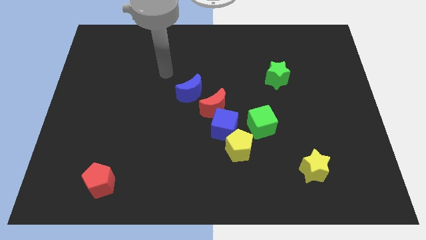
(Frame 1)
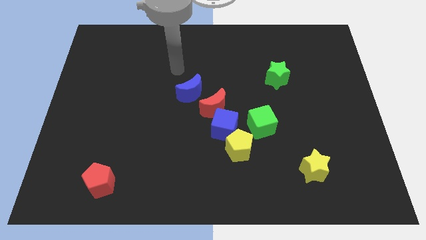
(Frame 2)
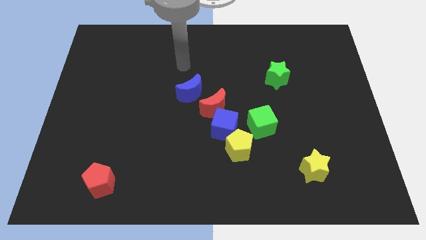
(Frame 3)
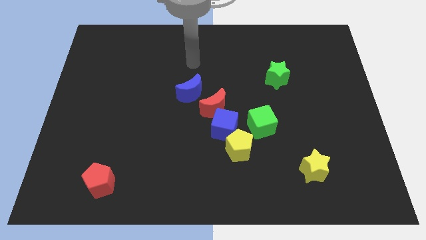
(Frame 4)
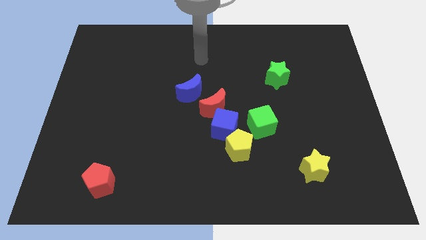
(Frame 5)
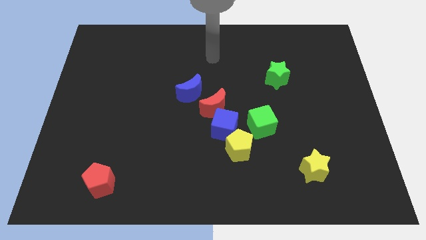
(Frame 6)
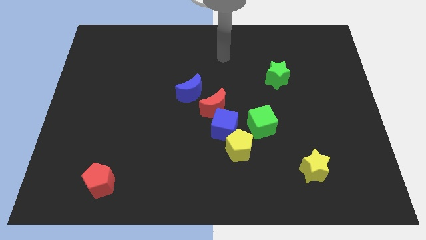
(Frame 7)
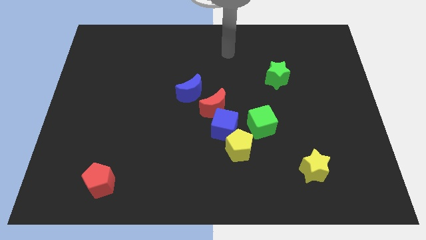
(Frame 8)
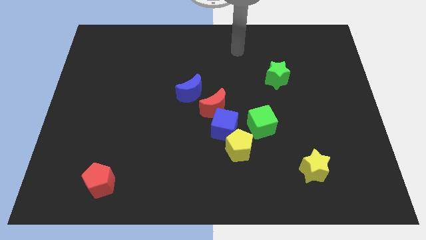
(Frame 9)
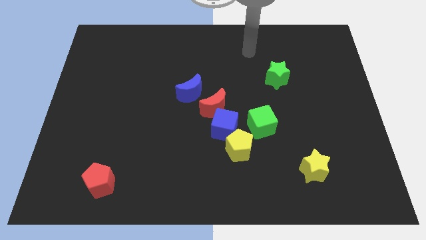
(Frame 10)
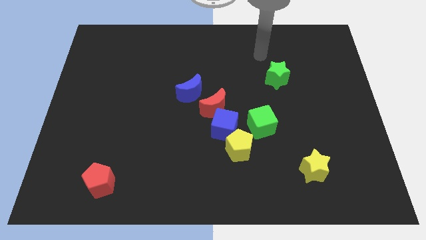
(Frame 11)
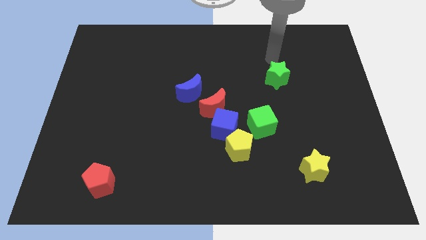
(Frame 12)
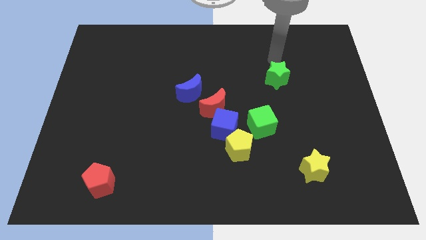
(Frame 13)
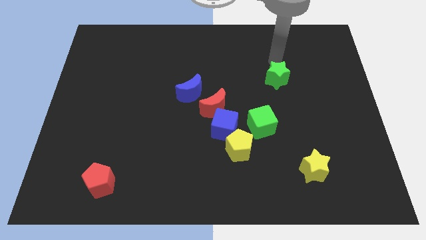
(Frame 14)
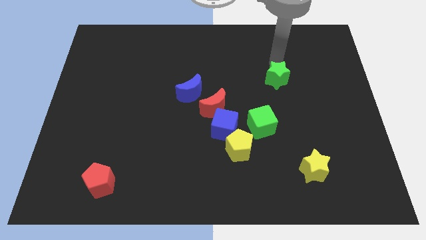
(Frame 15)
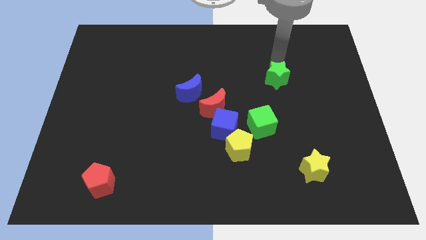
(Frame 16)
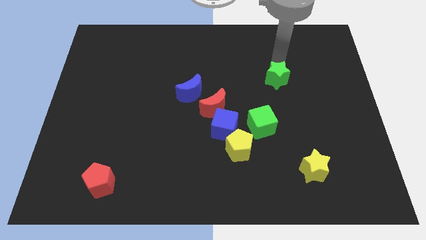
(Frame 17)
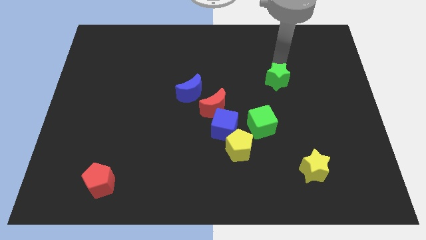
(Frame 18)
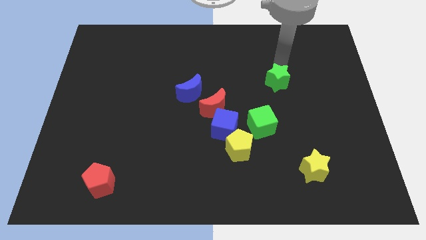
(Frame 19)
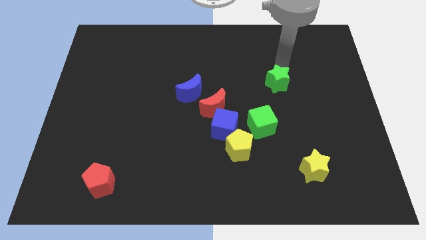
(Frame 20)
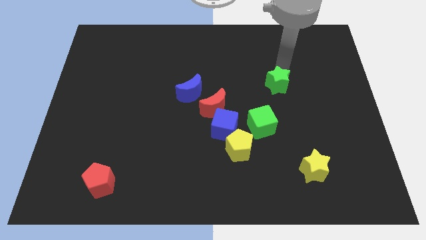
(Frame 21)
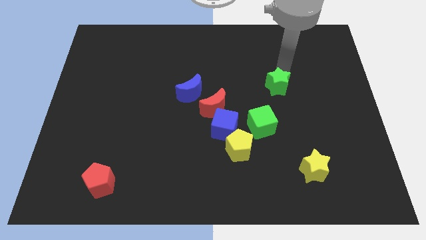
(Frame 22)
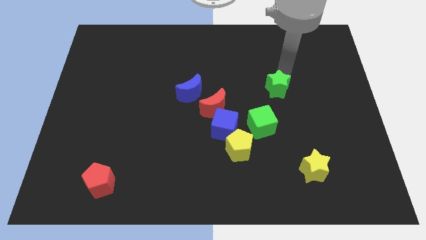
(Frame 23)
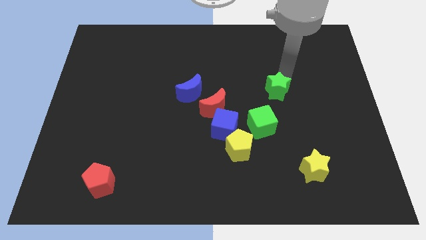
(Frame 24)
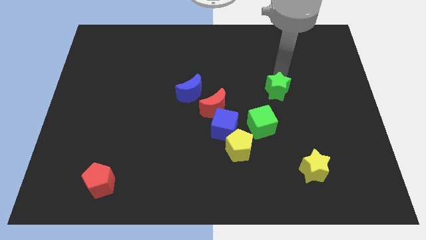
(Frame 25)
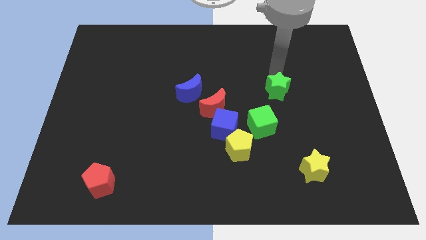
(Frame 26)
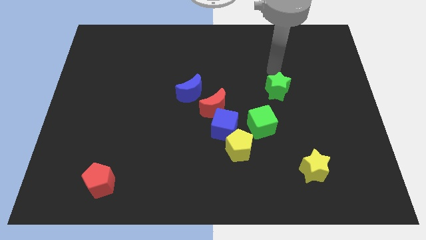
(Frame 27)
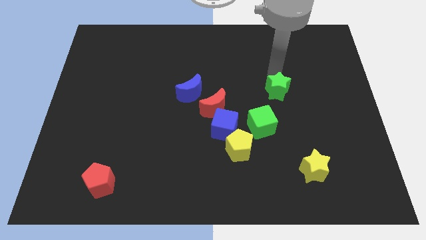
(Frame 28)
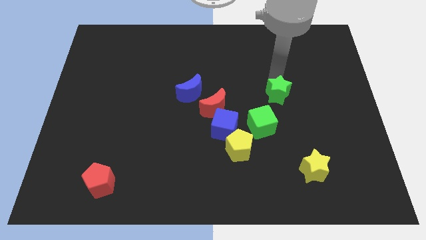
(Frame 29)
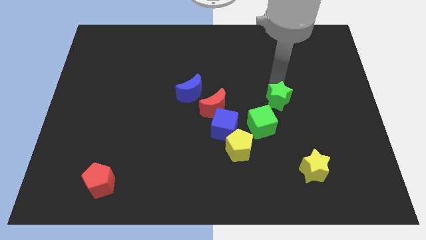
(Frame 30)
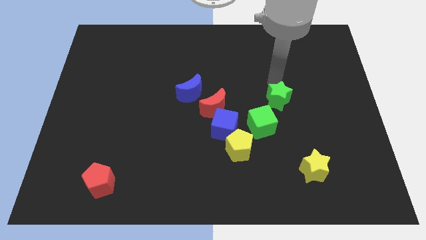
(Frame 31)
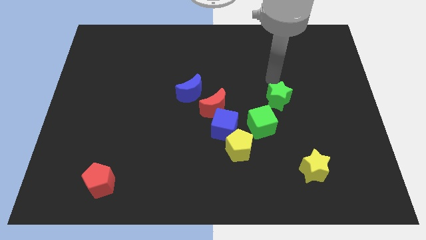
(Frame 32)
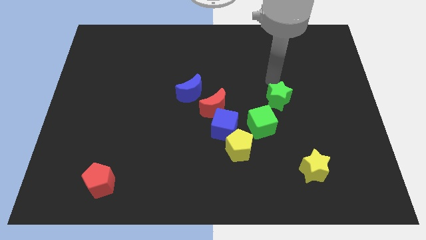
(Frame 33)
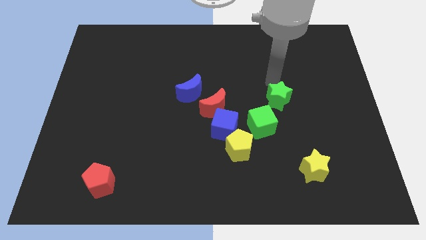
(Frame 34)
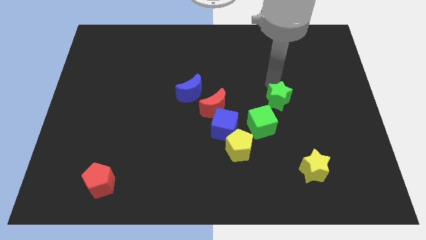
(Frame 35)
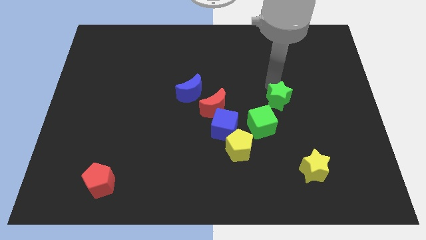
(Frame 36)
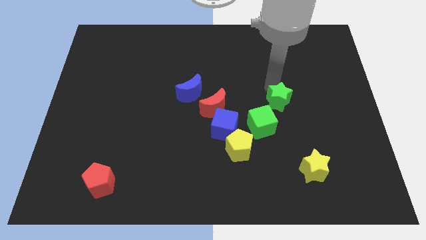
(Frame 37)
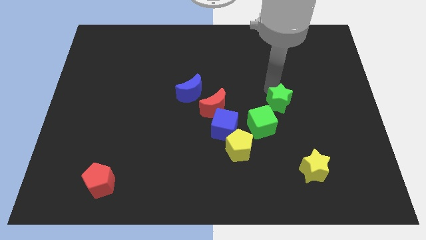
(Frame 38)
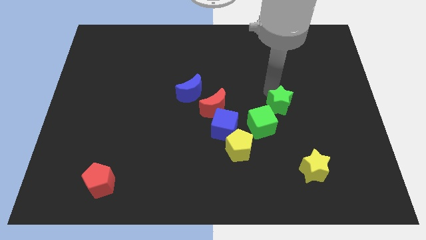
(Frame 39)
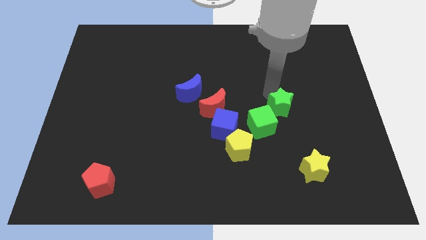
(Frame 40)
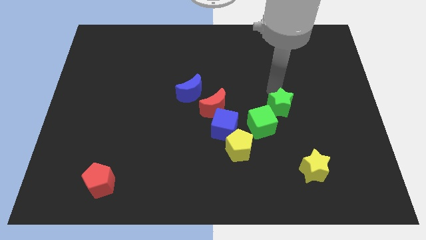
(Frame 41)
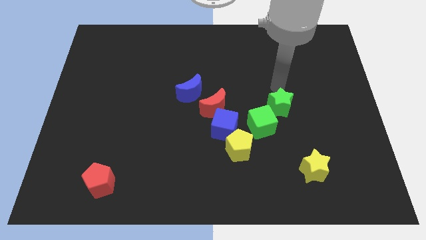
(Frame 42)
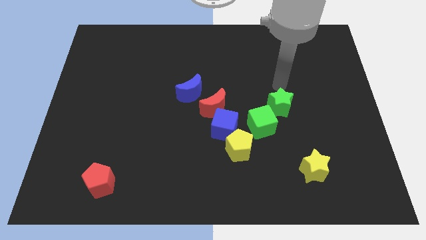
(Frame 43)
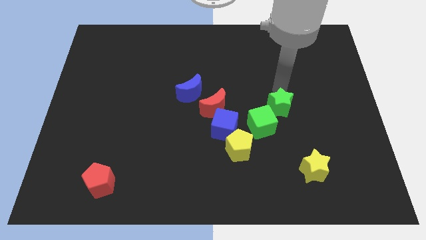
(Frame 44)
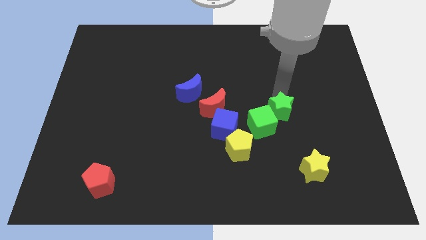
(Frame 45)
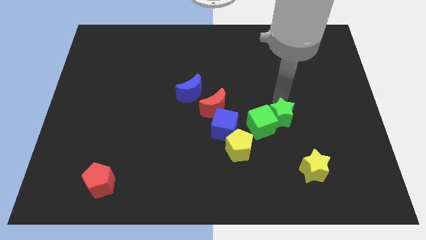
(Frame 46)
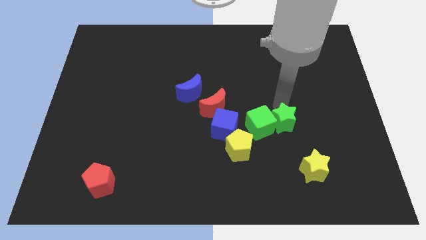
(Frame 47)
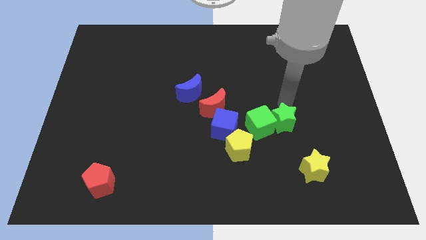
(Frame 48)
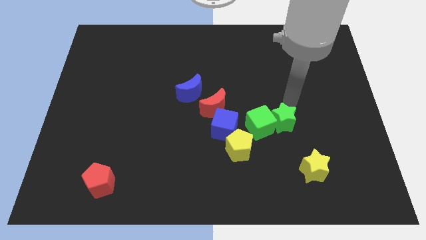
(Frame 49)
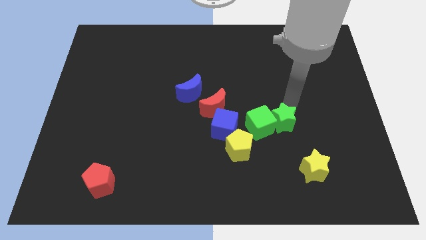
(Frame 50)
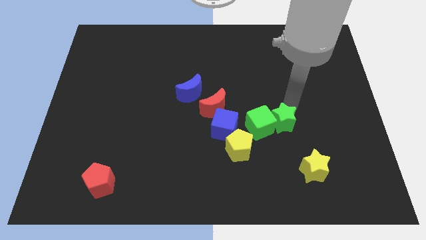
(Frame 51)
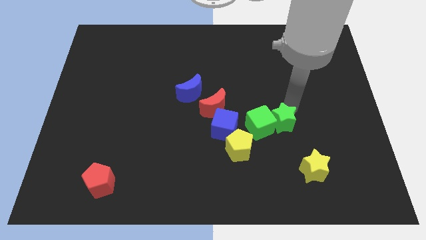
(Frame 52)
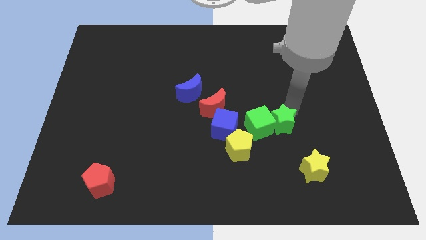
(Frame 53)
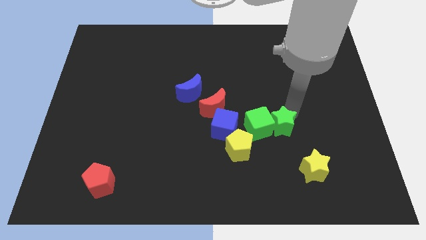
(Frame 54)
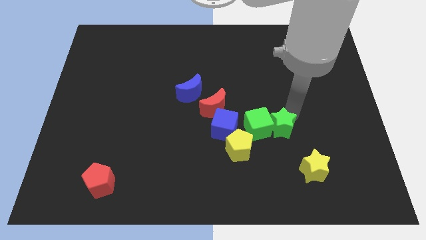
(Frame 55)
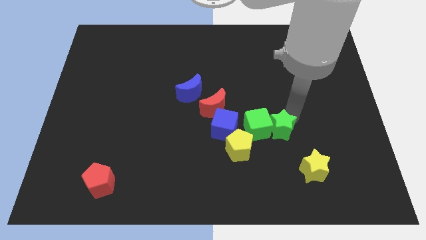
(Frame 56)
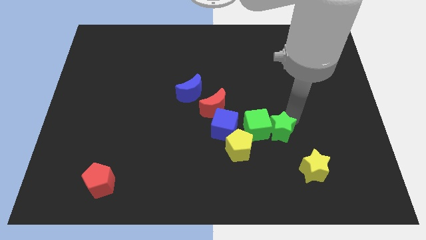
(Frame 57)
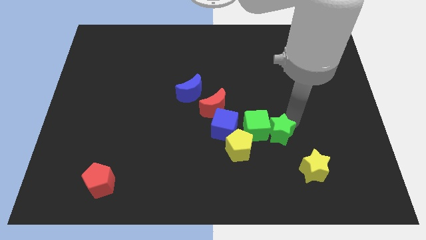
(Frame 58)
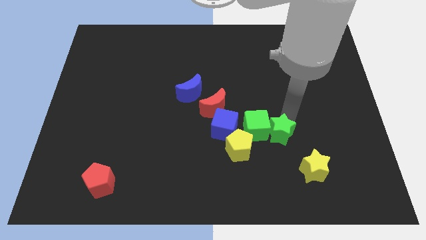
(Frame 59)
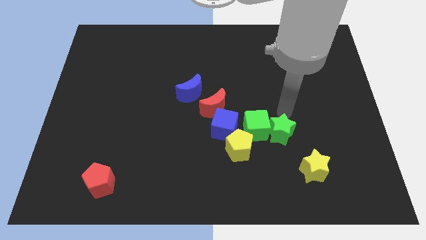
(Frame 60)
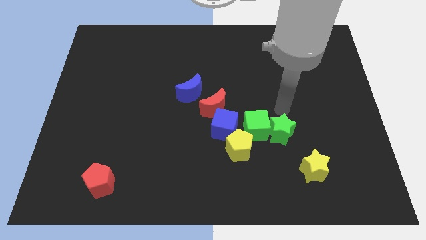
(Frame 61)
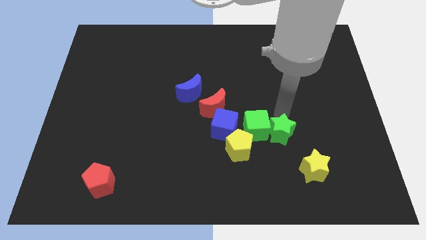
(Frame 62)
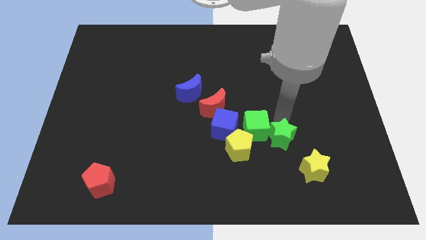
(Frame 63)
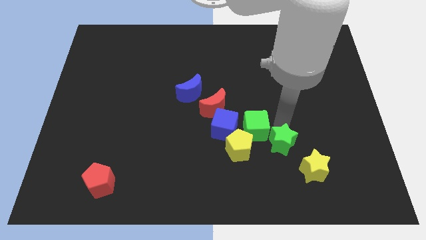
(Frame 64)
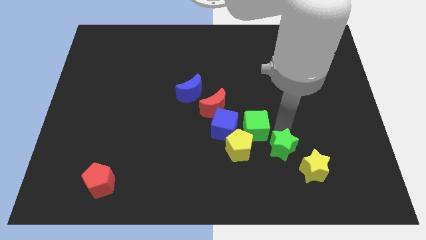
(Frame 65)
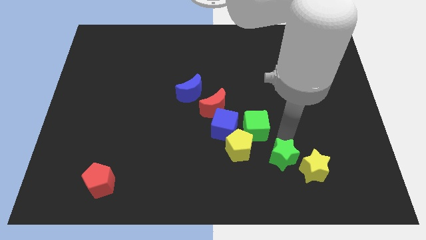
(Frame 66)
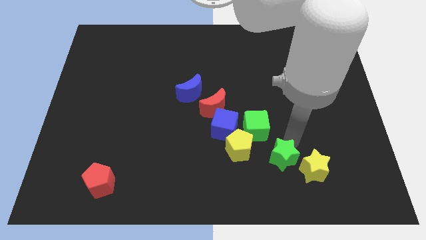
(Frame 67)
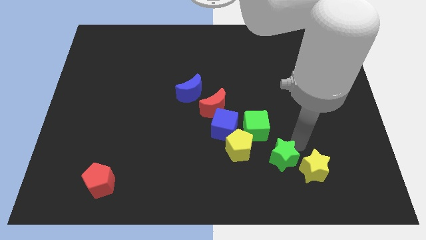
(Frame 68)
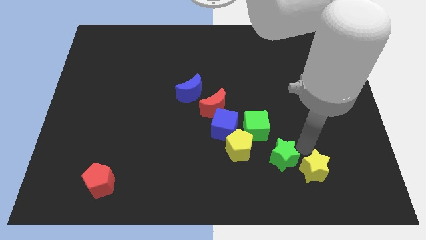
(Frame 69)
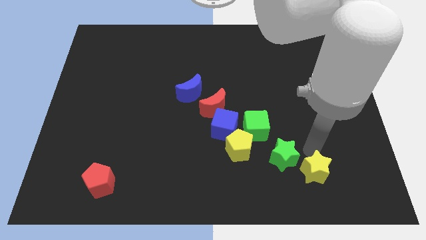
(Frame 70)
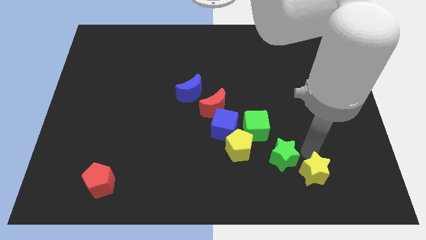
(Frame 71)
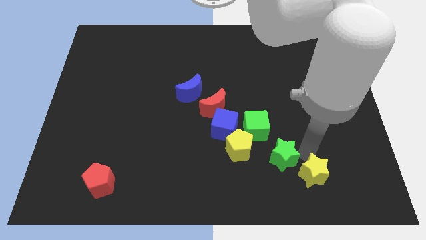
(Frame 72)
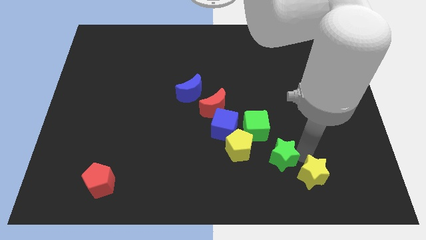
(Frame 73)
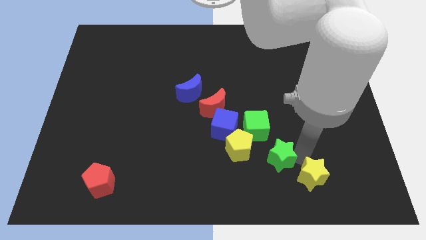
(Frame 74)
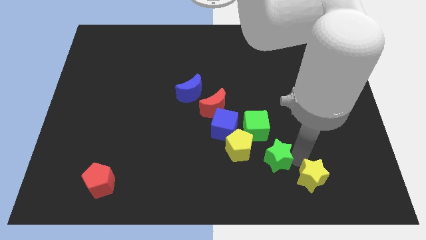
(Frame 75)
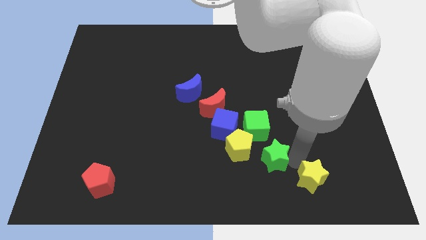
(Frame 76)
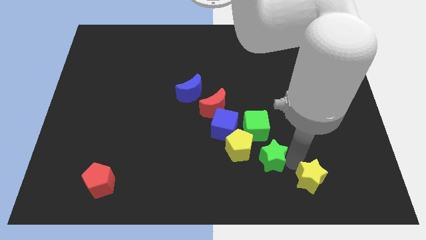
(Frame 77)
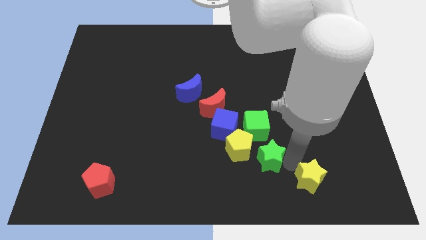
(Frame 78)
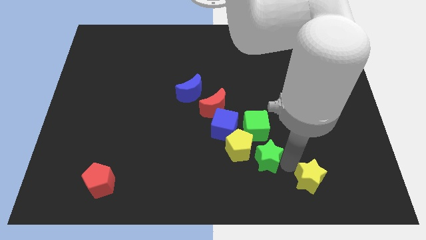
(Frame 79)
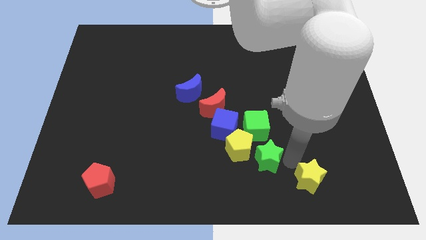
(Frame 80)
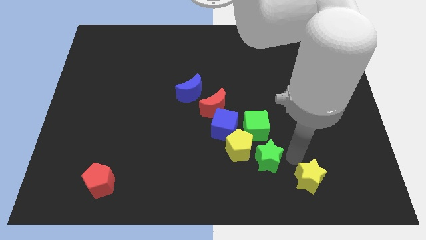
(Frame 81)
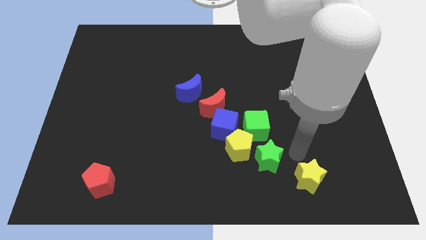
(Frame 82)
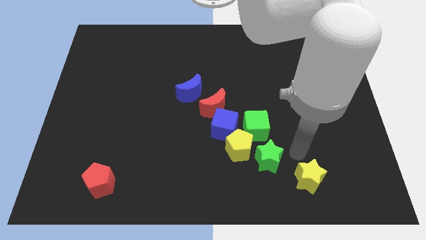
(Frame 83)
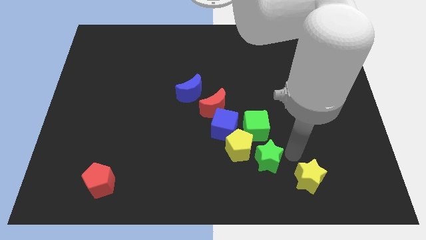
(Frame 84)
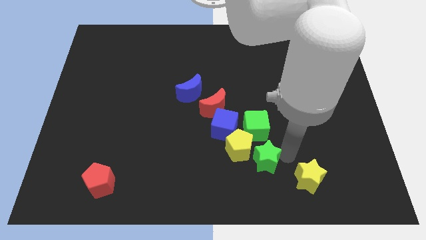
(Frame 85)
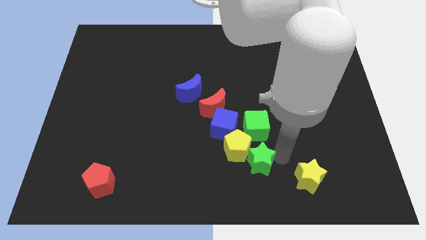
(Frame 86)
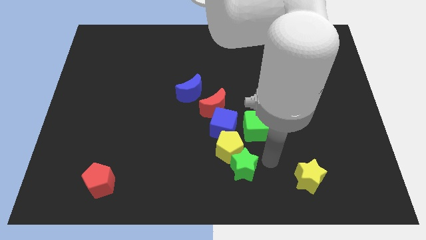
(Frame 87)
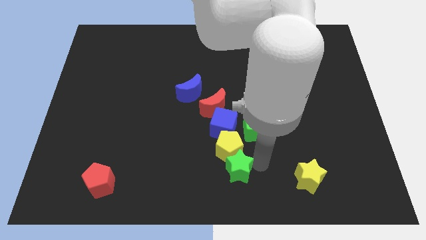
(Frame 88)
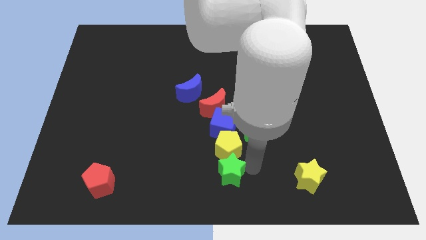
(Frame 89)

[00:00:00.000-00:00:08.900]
put the green star to the bottom left of the yellow pentagon
